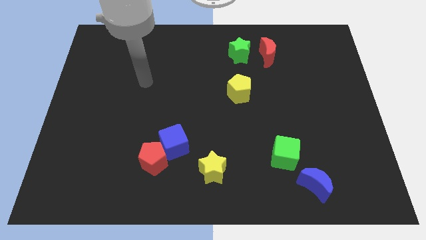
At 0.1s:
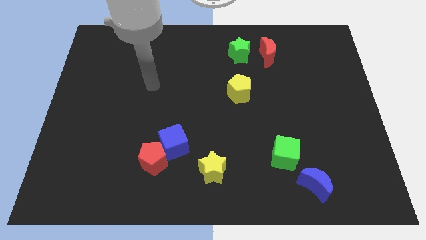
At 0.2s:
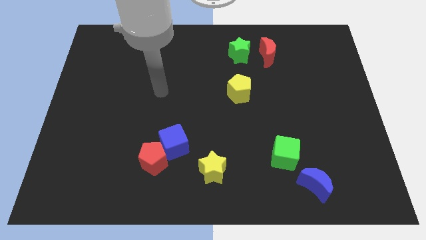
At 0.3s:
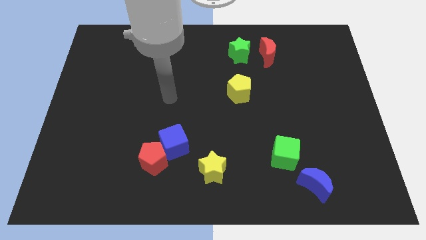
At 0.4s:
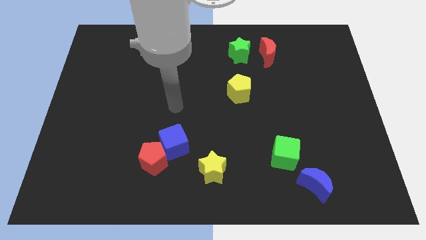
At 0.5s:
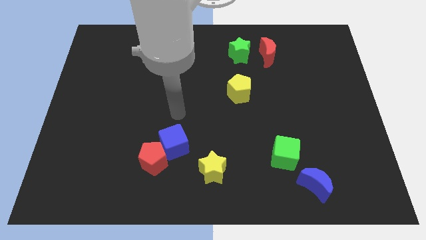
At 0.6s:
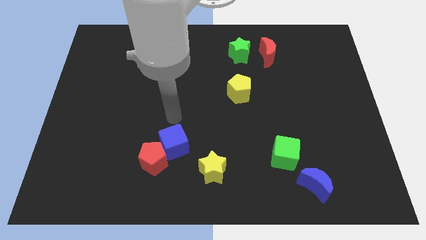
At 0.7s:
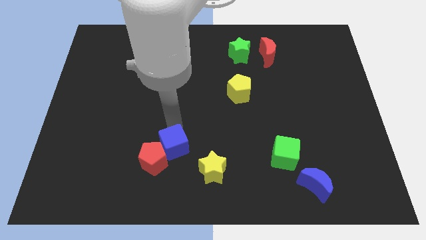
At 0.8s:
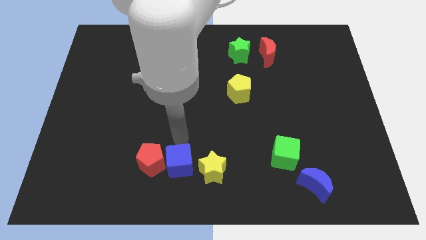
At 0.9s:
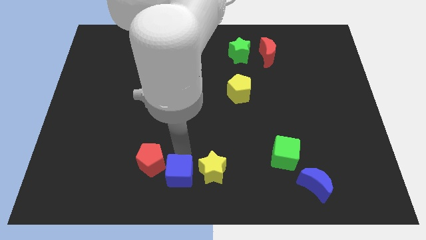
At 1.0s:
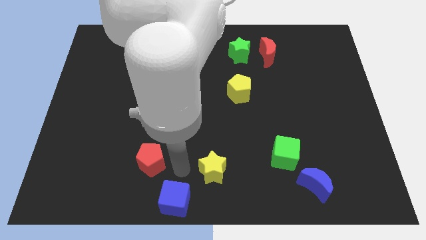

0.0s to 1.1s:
pull the red pentagon apart from the blue cube

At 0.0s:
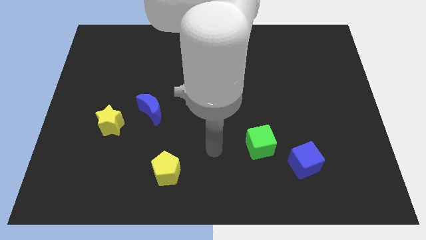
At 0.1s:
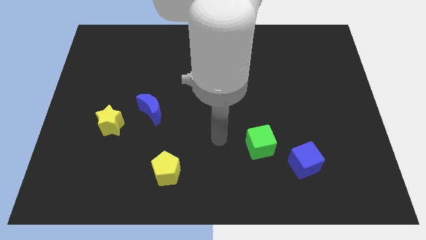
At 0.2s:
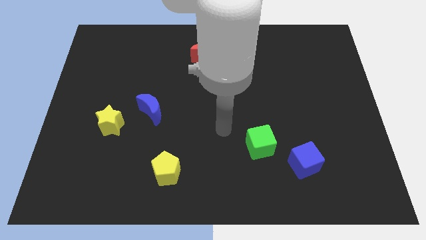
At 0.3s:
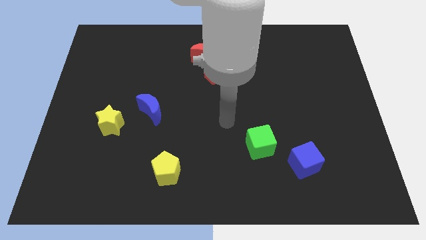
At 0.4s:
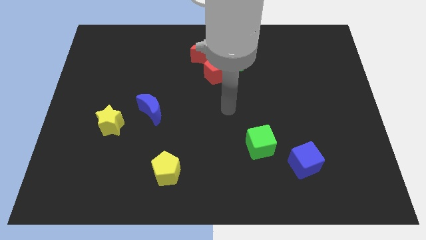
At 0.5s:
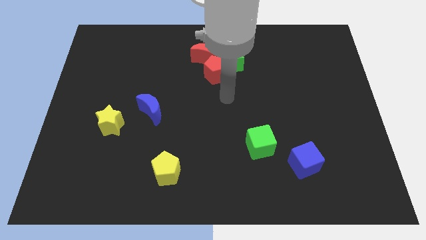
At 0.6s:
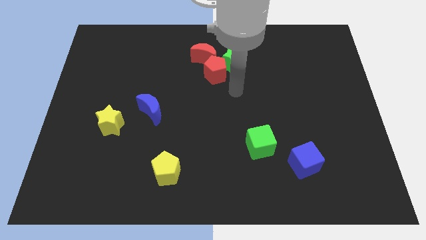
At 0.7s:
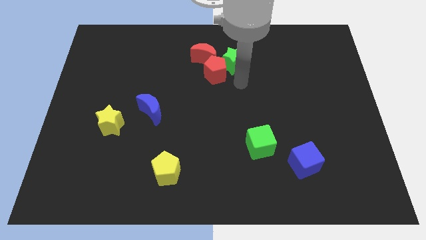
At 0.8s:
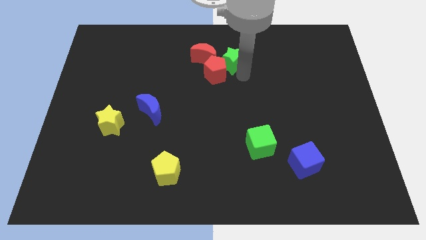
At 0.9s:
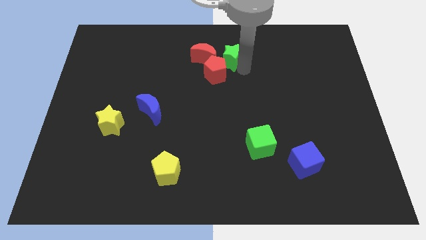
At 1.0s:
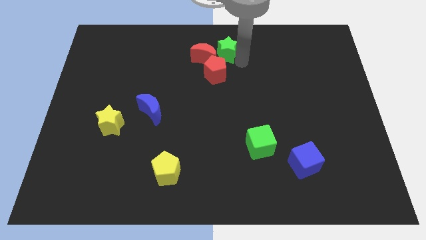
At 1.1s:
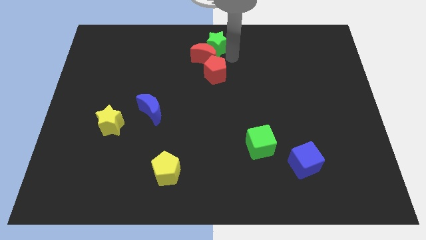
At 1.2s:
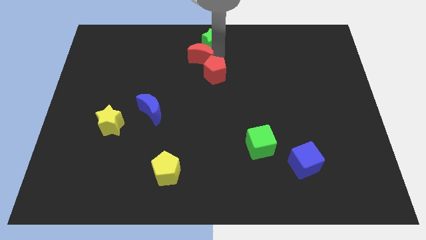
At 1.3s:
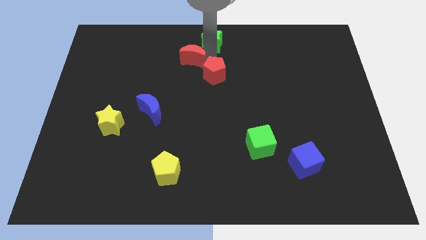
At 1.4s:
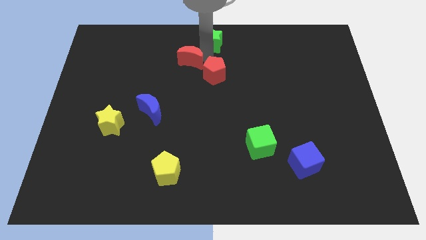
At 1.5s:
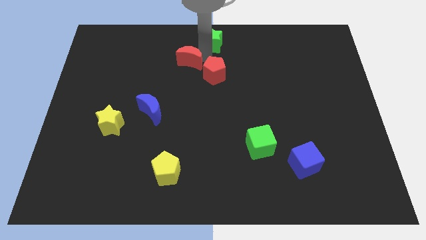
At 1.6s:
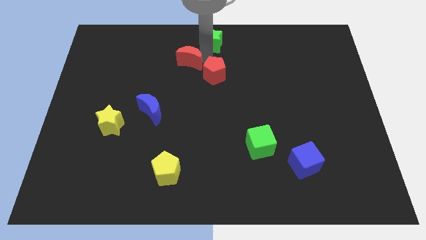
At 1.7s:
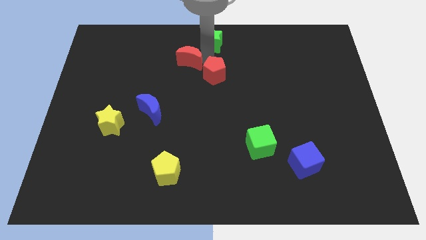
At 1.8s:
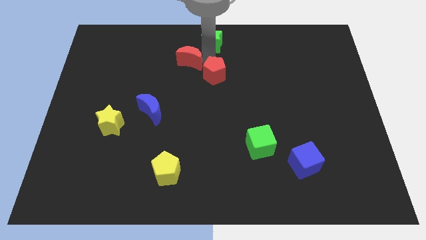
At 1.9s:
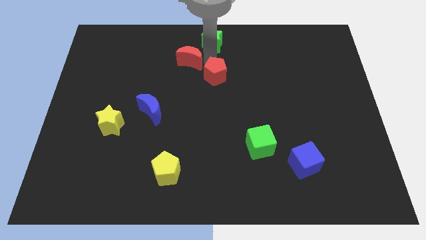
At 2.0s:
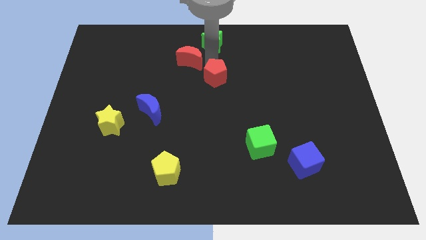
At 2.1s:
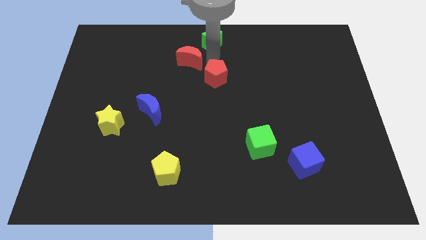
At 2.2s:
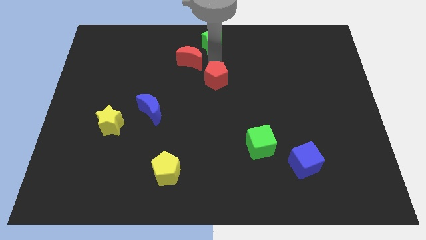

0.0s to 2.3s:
pull the red pentagon apart from the green star and red moon

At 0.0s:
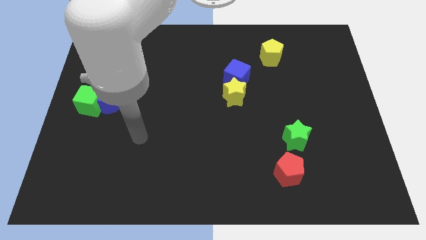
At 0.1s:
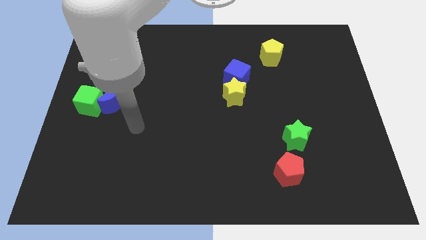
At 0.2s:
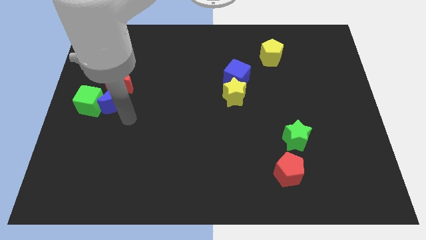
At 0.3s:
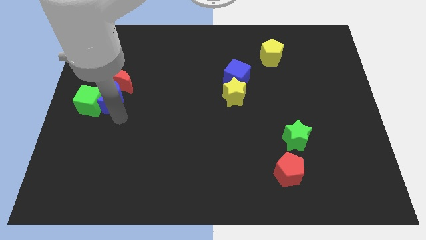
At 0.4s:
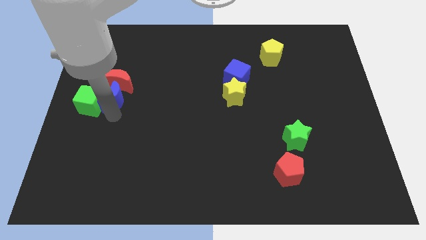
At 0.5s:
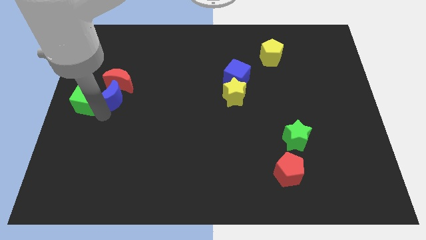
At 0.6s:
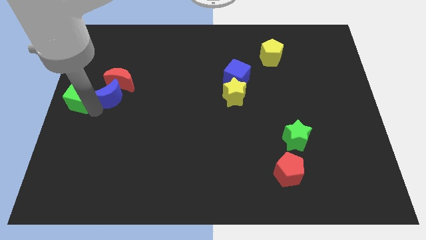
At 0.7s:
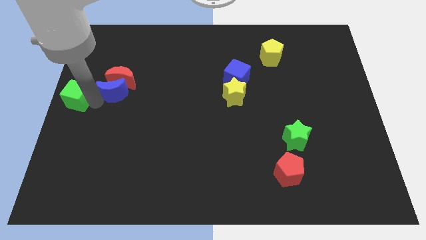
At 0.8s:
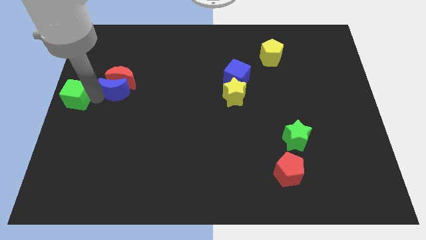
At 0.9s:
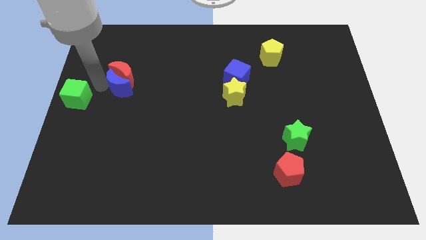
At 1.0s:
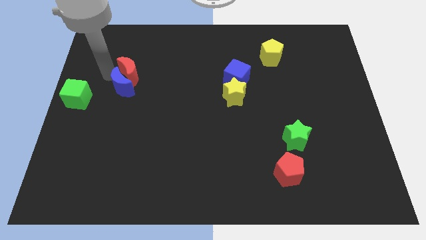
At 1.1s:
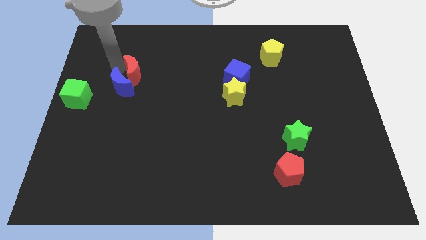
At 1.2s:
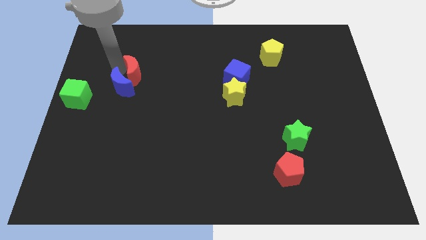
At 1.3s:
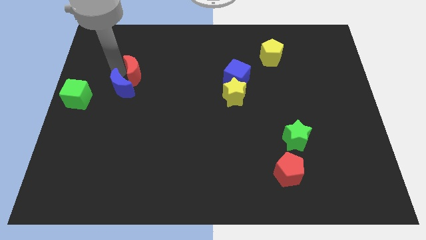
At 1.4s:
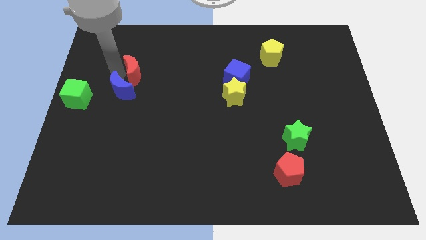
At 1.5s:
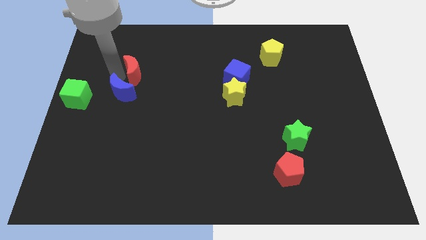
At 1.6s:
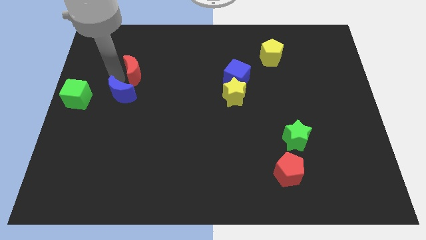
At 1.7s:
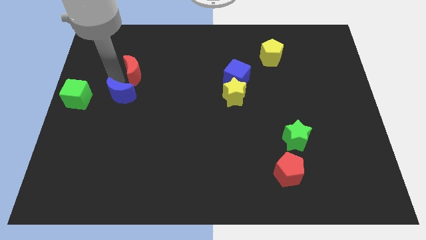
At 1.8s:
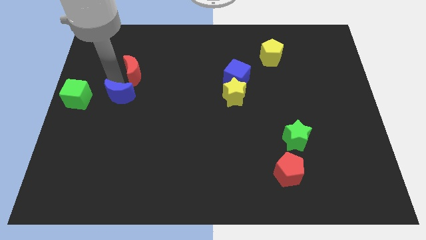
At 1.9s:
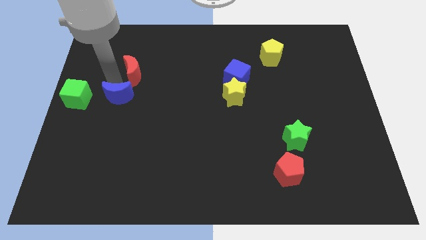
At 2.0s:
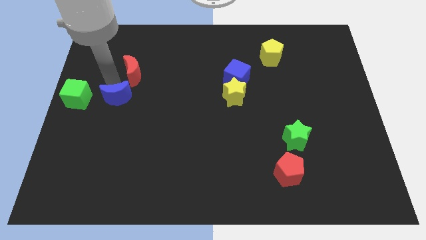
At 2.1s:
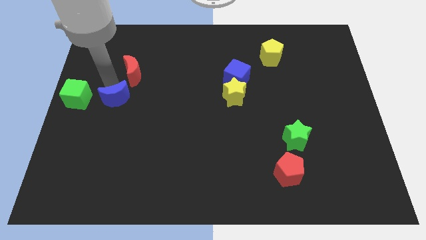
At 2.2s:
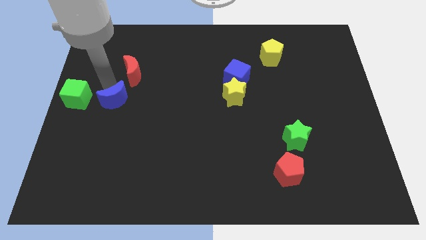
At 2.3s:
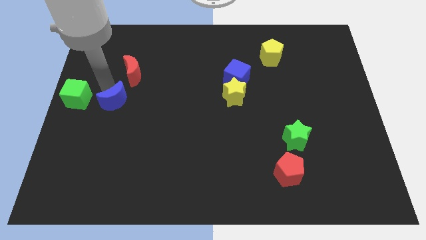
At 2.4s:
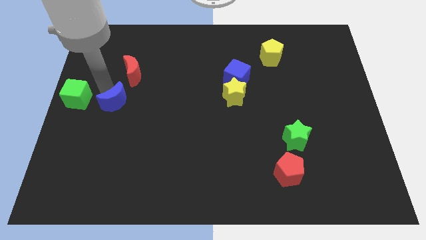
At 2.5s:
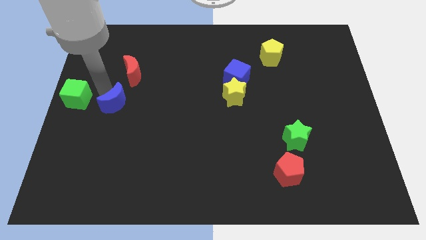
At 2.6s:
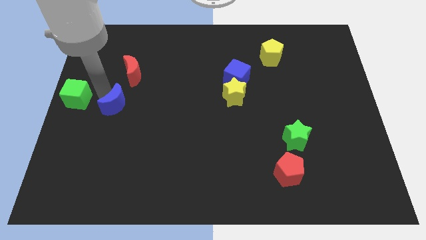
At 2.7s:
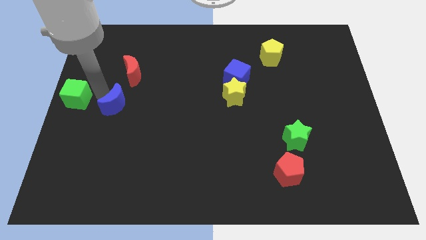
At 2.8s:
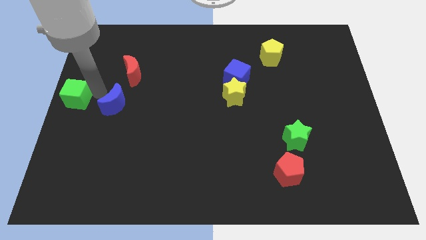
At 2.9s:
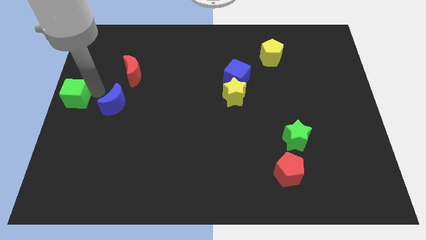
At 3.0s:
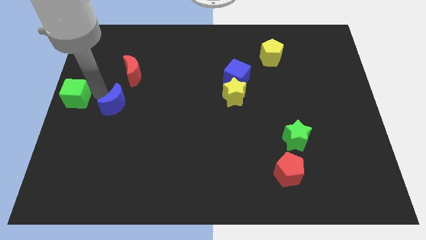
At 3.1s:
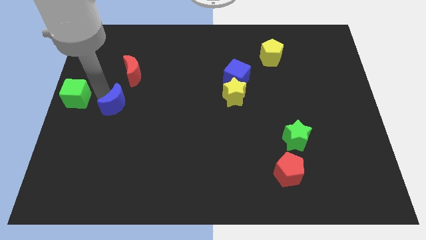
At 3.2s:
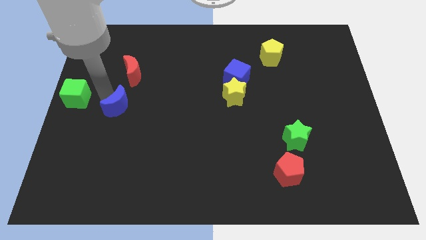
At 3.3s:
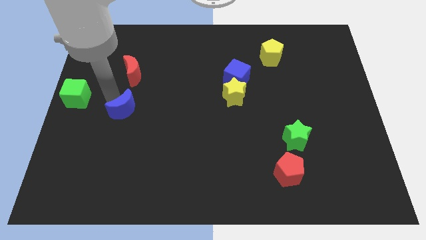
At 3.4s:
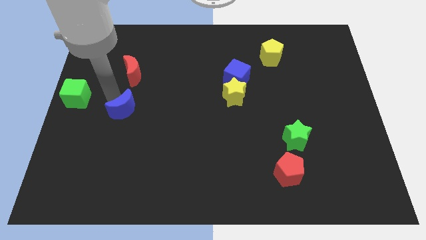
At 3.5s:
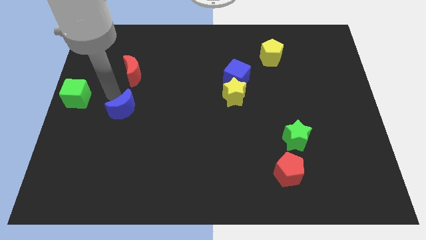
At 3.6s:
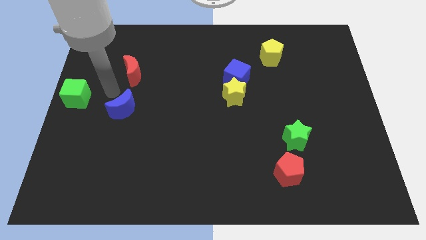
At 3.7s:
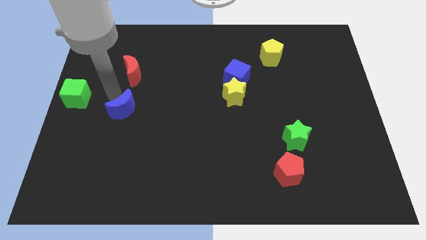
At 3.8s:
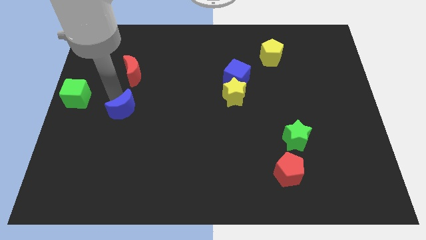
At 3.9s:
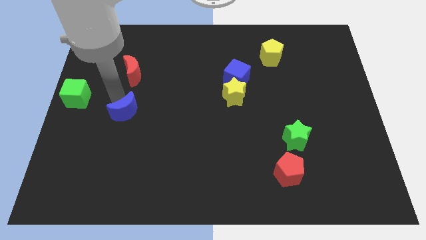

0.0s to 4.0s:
pull the blue moon apart from the green cube and red moon

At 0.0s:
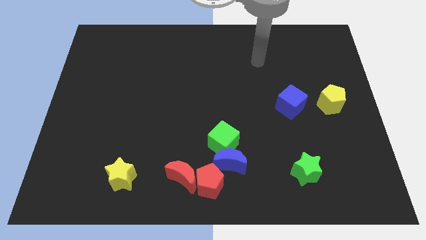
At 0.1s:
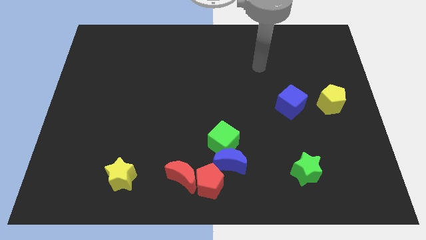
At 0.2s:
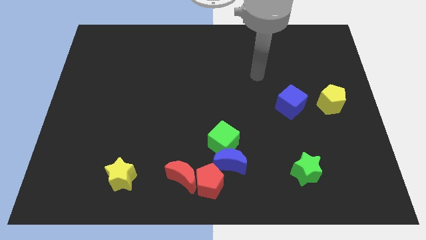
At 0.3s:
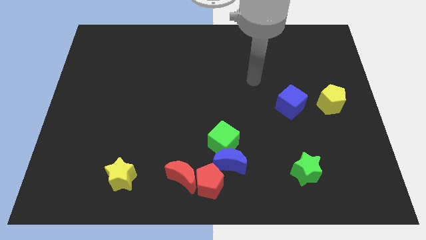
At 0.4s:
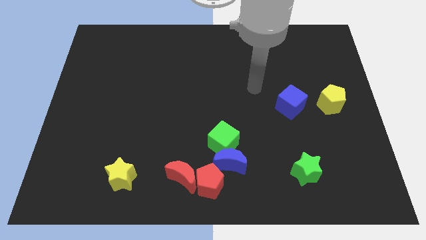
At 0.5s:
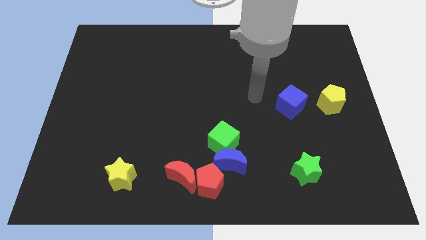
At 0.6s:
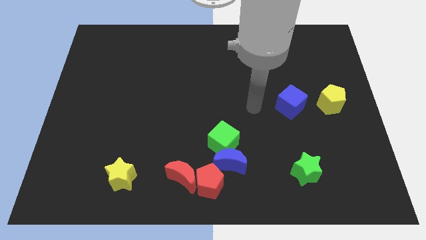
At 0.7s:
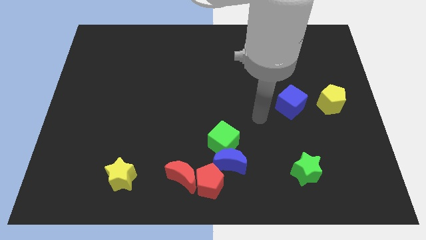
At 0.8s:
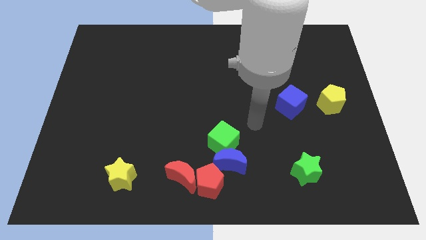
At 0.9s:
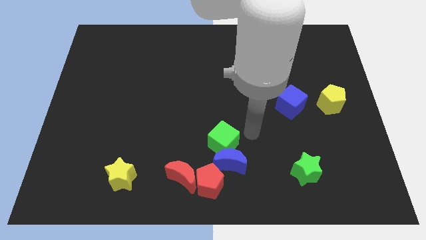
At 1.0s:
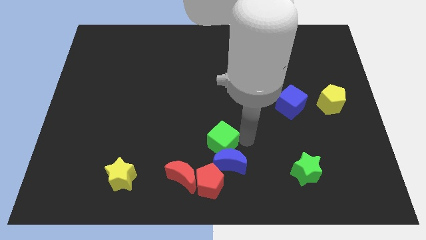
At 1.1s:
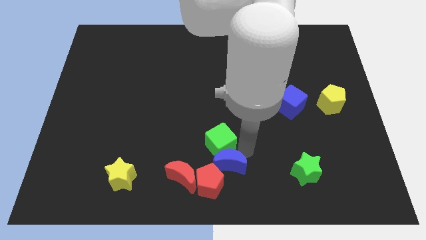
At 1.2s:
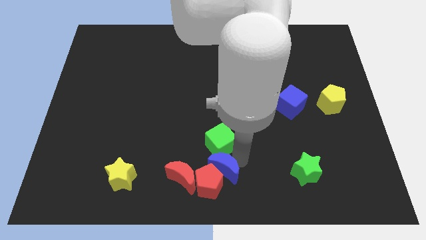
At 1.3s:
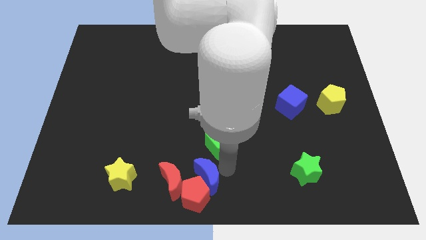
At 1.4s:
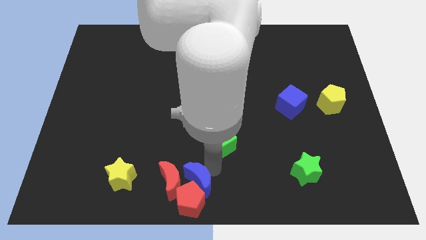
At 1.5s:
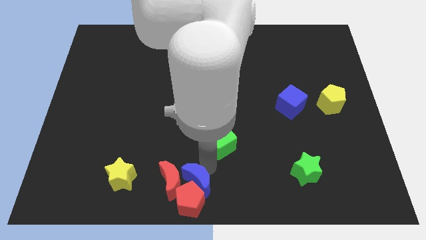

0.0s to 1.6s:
pull the green cube apart from the blue moon

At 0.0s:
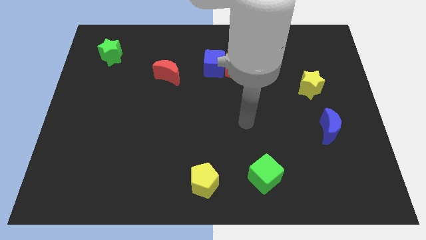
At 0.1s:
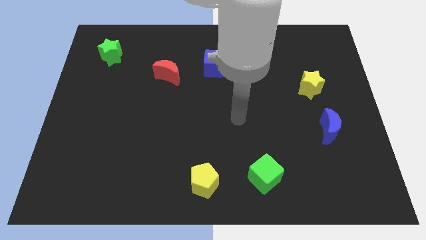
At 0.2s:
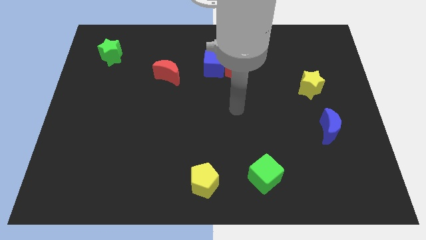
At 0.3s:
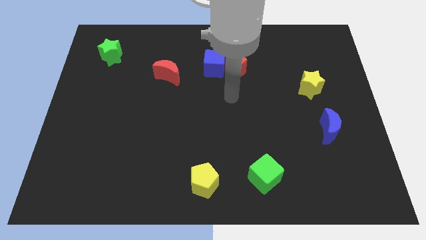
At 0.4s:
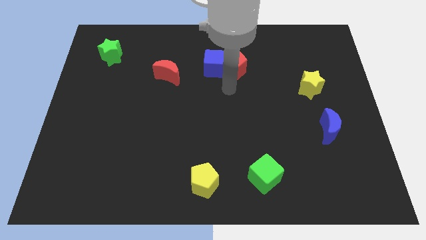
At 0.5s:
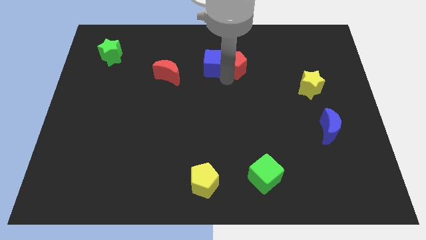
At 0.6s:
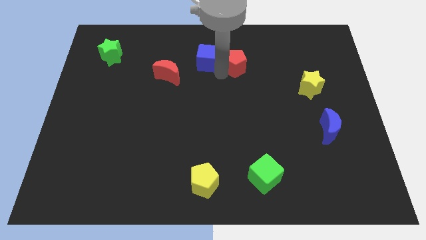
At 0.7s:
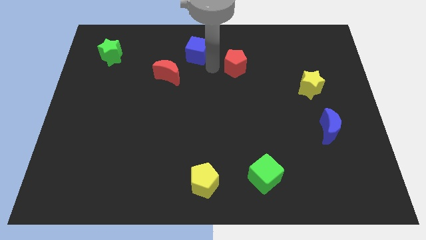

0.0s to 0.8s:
separate the red pentagon from the blue cube
